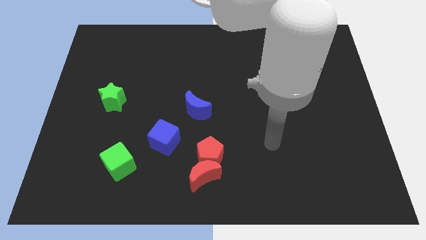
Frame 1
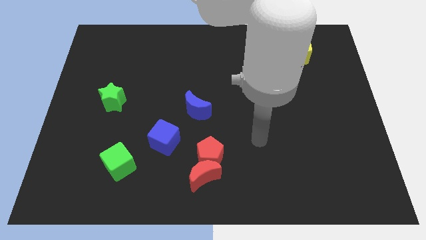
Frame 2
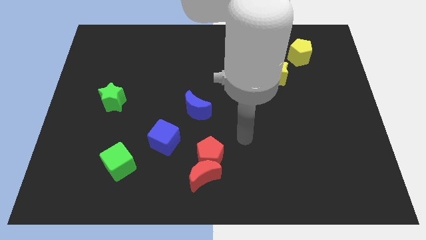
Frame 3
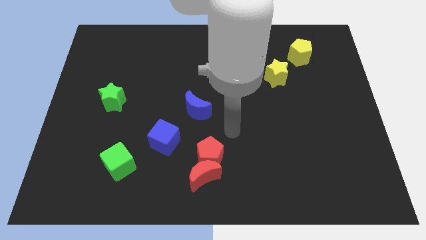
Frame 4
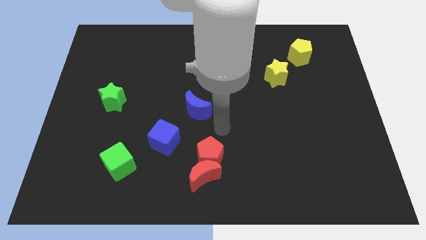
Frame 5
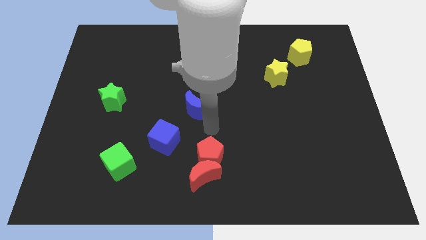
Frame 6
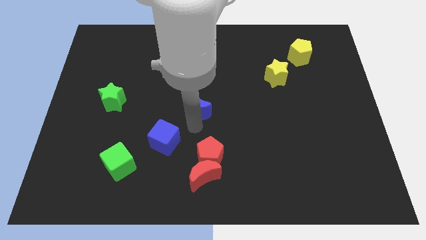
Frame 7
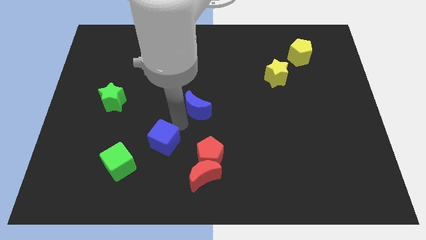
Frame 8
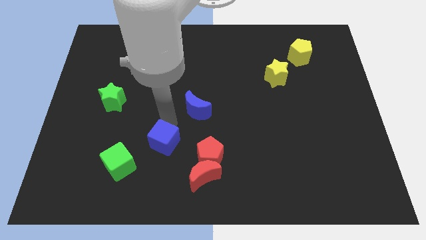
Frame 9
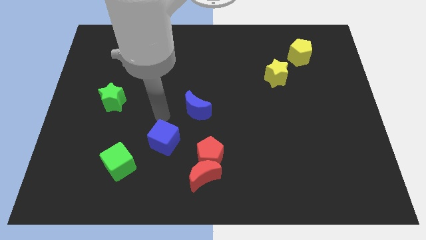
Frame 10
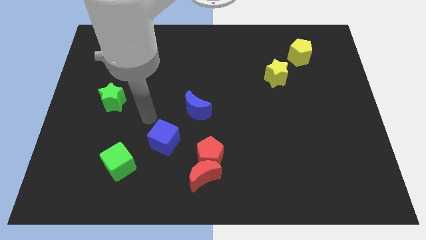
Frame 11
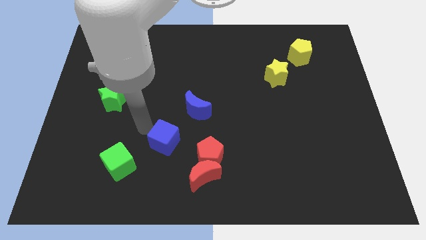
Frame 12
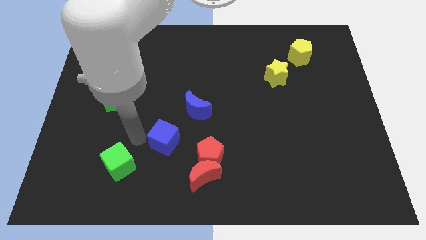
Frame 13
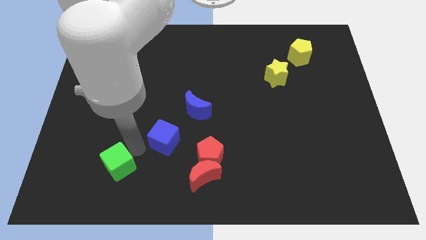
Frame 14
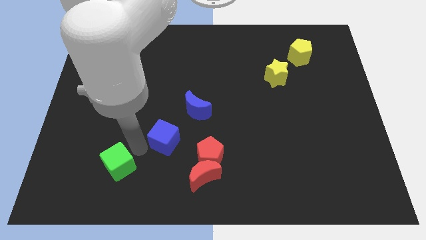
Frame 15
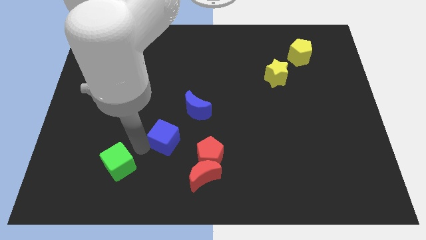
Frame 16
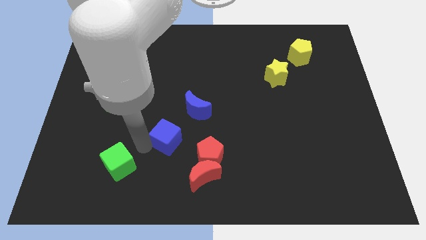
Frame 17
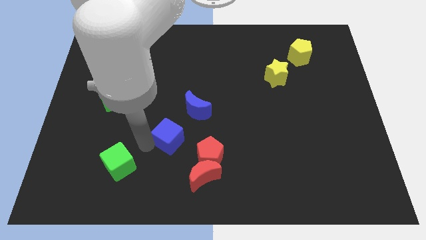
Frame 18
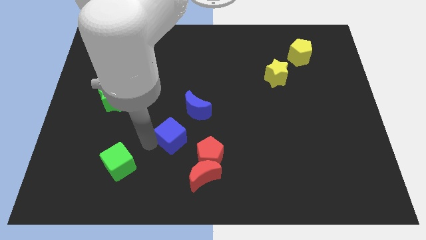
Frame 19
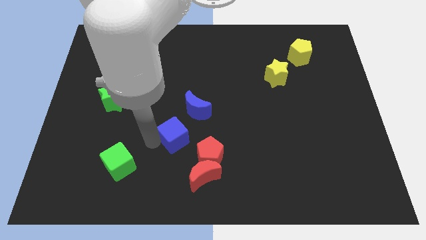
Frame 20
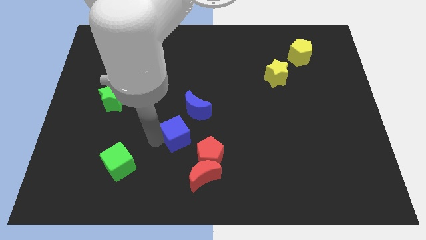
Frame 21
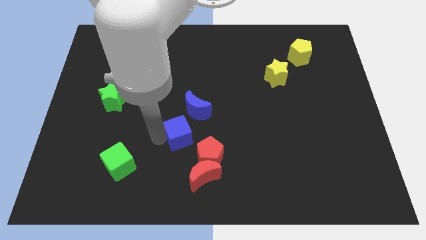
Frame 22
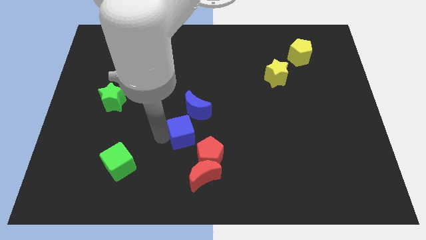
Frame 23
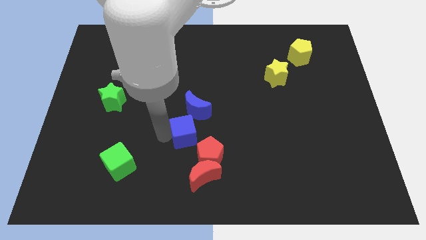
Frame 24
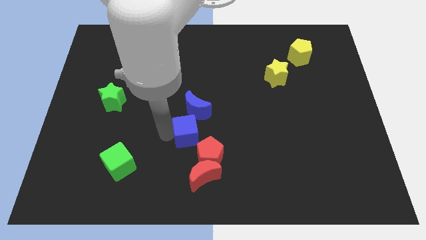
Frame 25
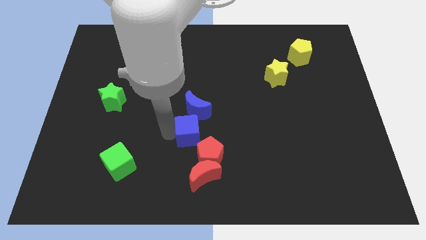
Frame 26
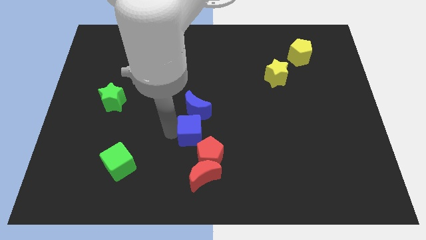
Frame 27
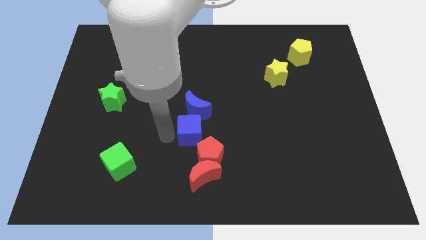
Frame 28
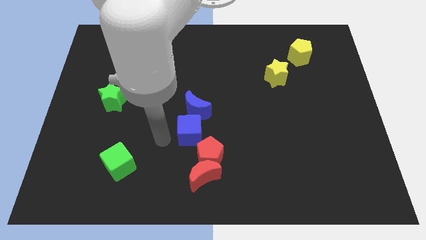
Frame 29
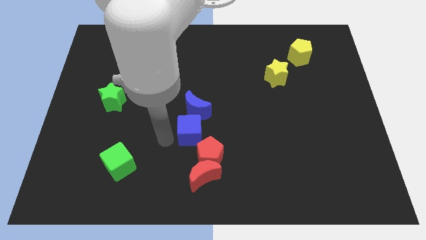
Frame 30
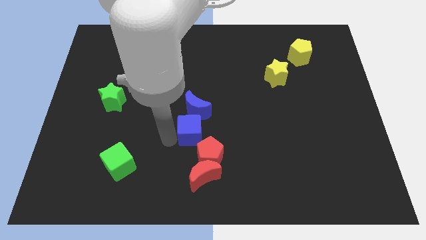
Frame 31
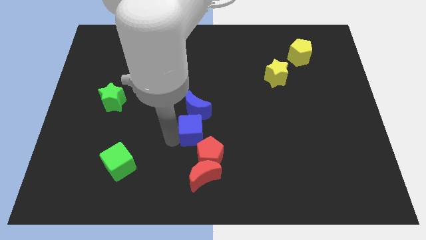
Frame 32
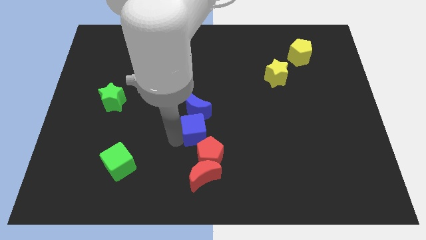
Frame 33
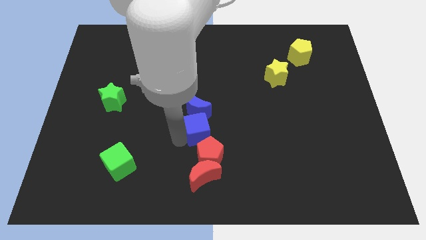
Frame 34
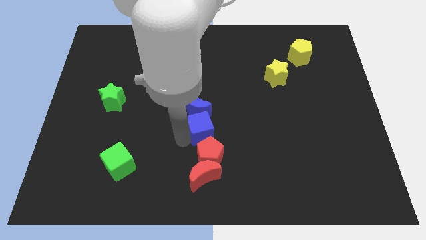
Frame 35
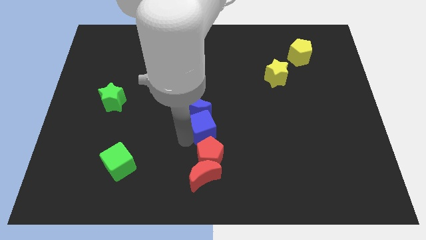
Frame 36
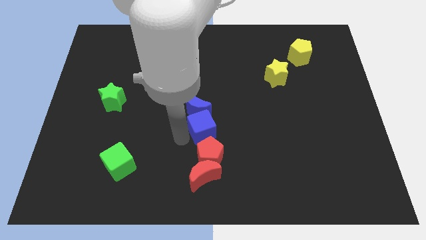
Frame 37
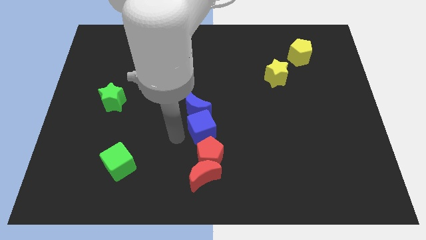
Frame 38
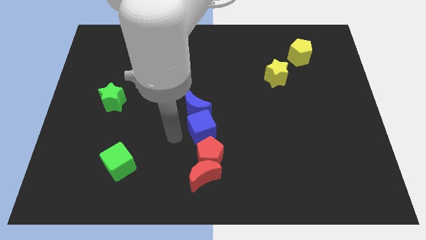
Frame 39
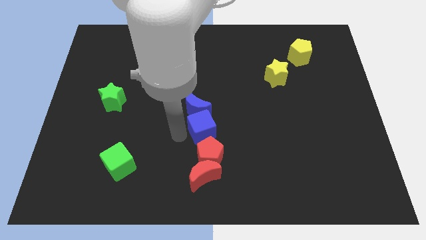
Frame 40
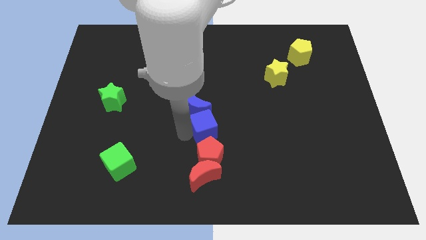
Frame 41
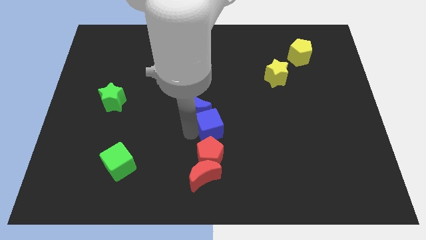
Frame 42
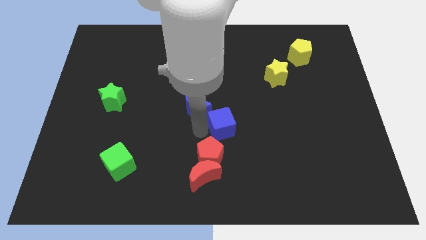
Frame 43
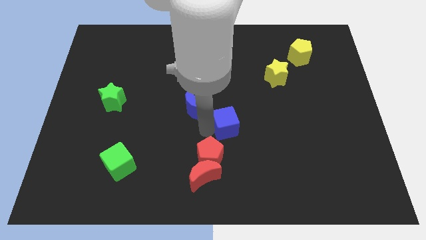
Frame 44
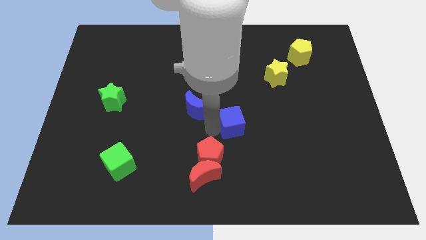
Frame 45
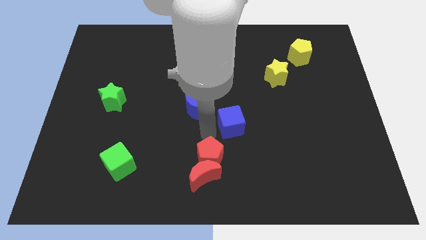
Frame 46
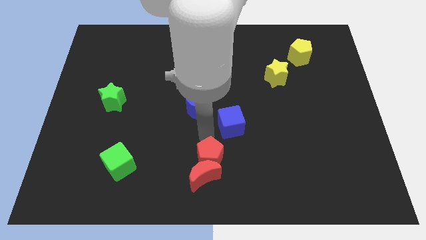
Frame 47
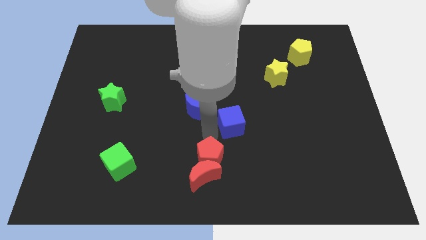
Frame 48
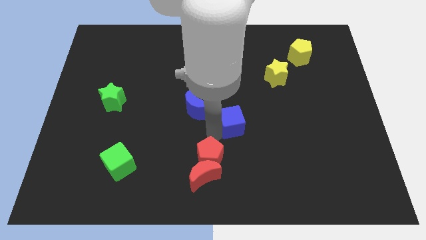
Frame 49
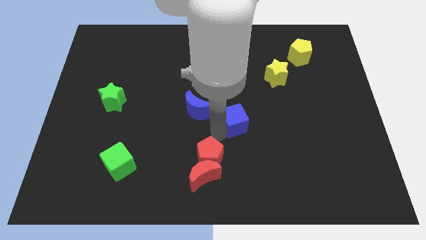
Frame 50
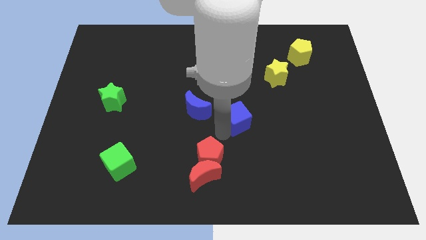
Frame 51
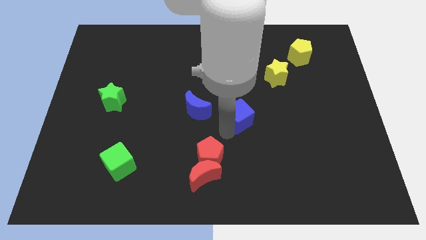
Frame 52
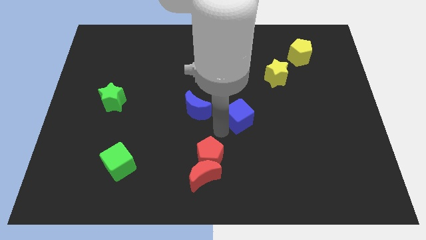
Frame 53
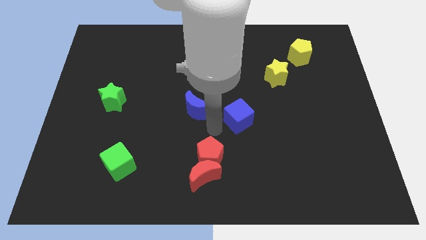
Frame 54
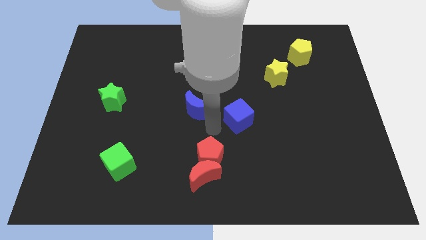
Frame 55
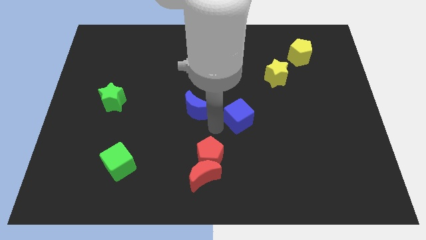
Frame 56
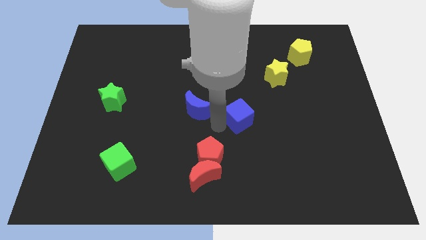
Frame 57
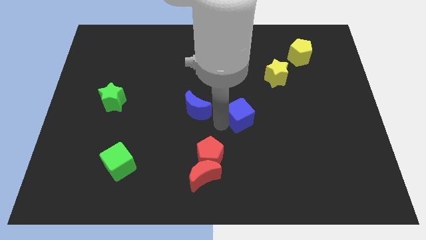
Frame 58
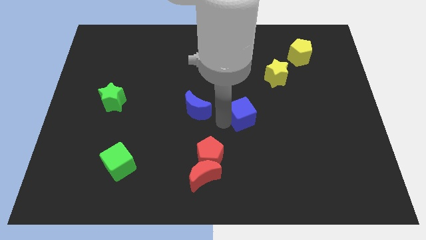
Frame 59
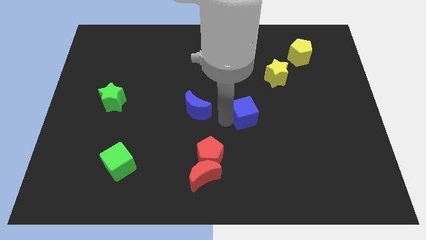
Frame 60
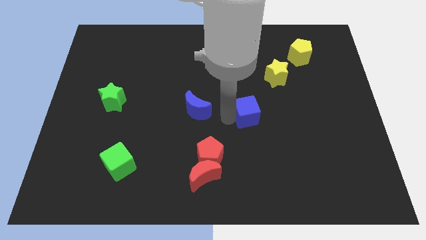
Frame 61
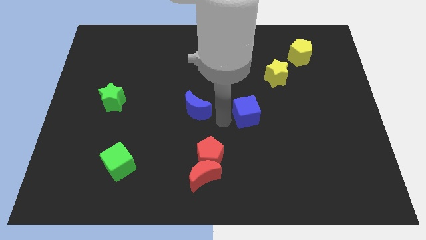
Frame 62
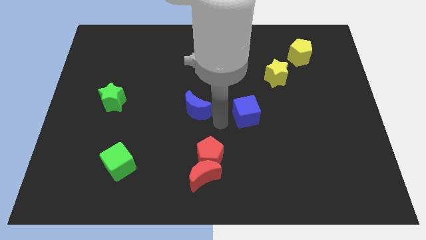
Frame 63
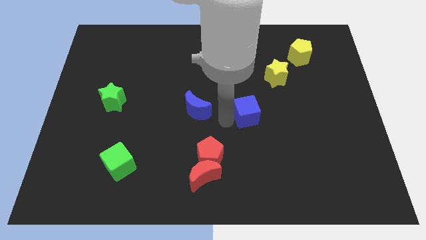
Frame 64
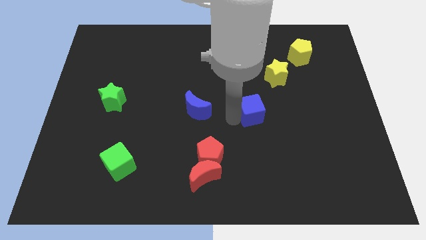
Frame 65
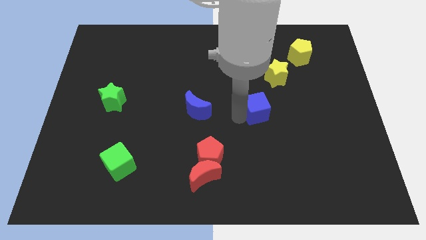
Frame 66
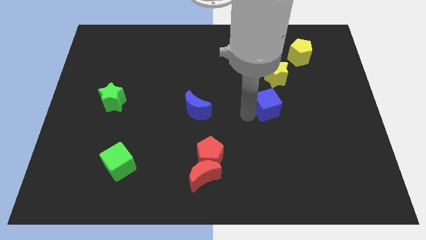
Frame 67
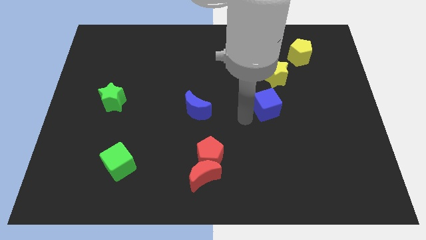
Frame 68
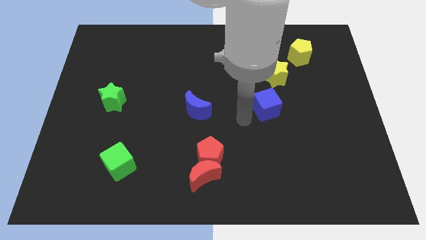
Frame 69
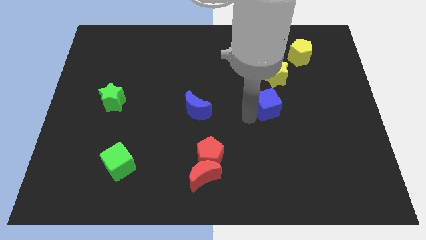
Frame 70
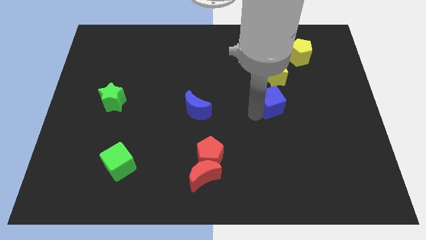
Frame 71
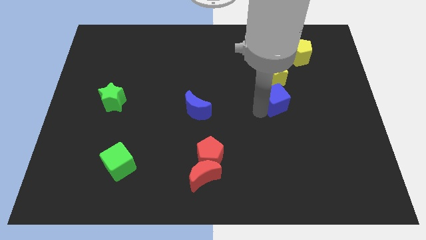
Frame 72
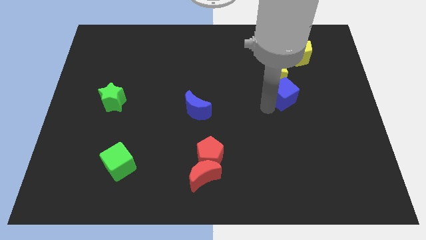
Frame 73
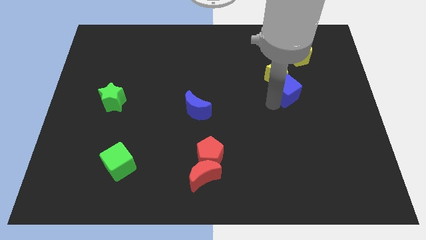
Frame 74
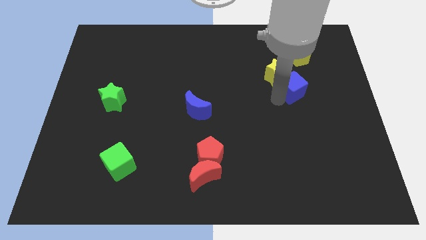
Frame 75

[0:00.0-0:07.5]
slide the blue cube to the bottom of the yellow pentagon

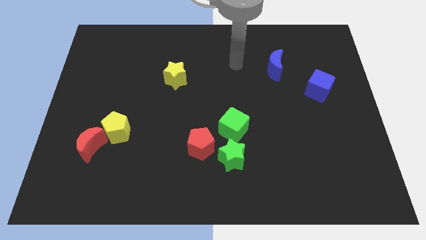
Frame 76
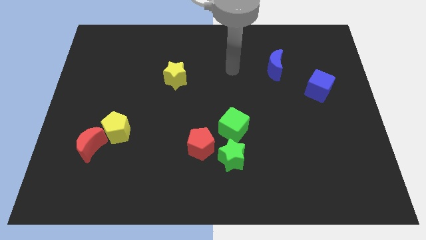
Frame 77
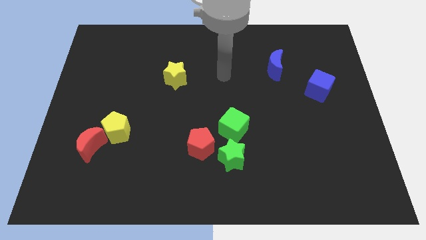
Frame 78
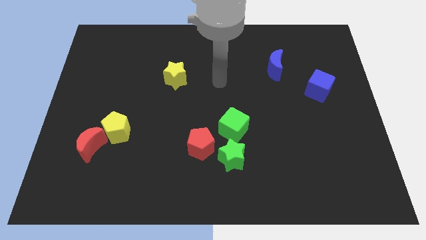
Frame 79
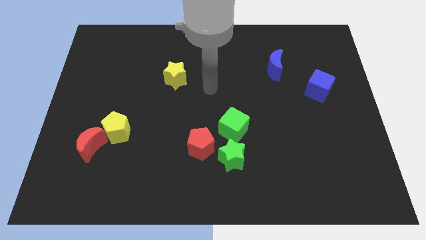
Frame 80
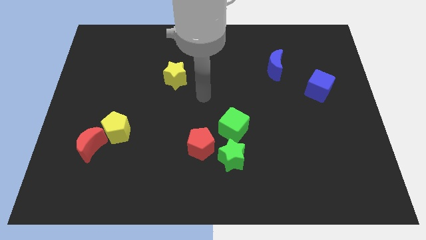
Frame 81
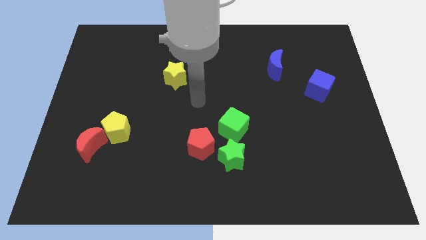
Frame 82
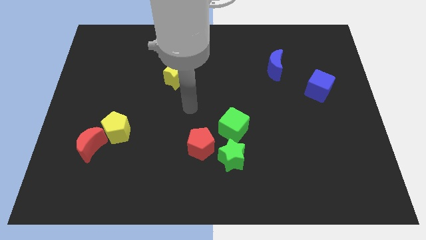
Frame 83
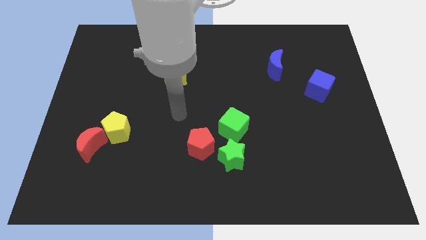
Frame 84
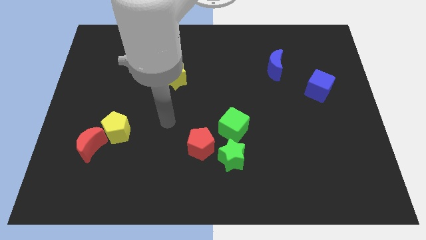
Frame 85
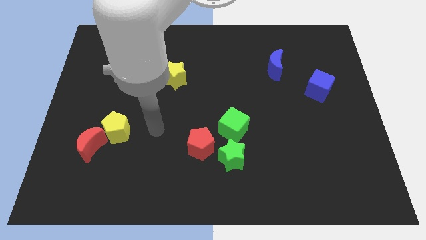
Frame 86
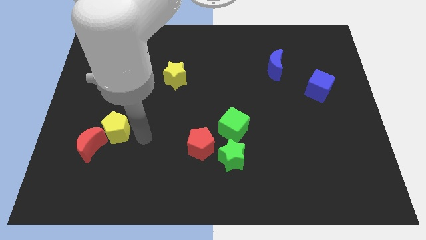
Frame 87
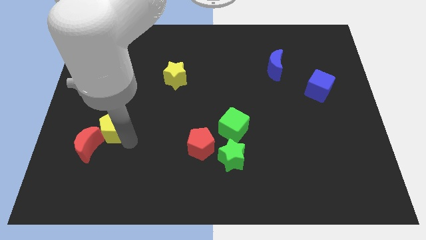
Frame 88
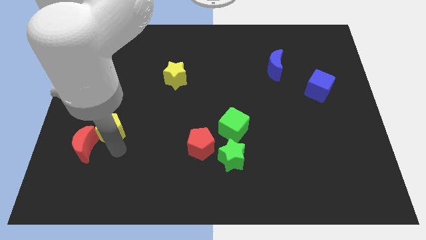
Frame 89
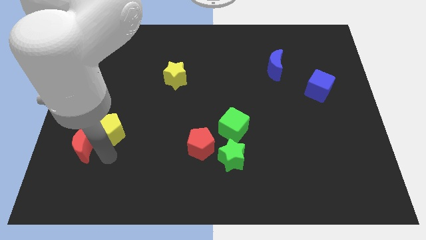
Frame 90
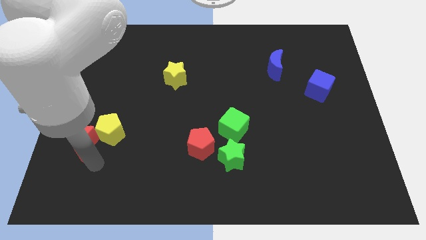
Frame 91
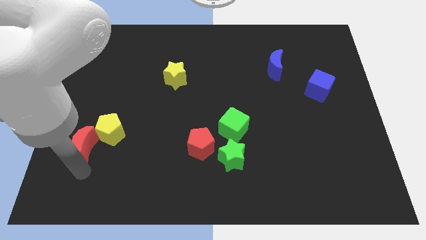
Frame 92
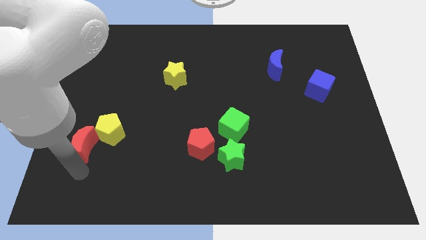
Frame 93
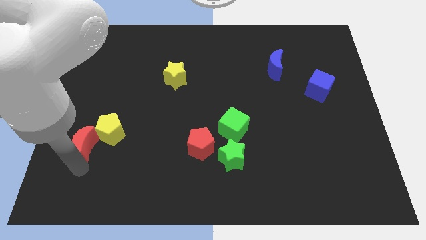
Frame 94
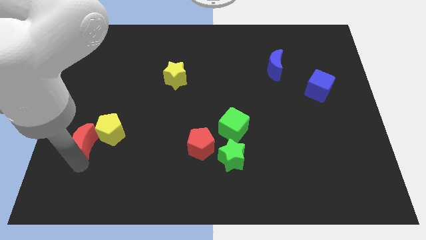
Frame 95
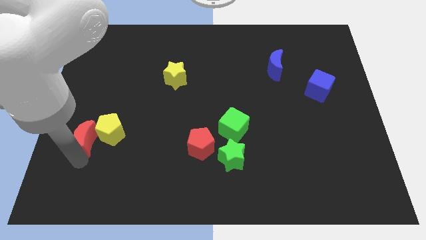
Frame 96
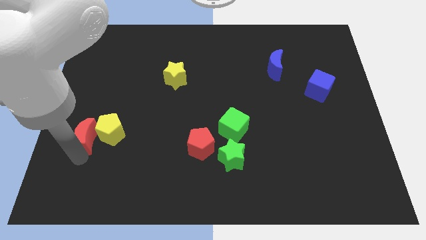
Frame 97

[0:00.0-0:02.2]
move the red moon diagonally up and to the left of the yellow pentagon
